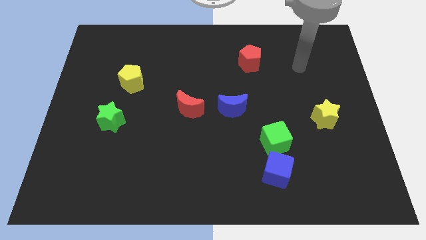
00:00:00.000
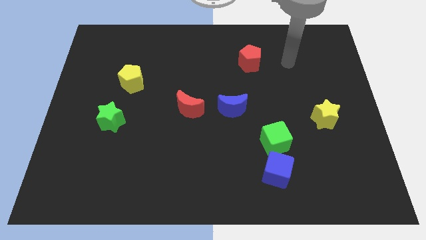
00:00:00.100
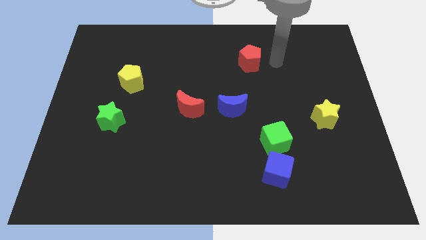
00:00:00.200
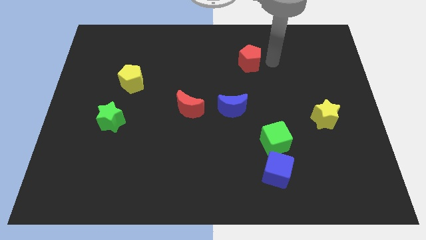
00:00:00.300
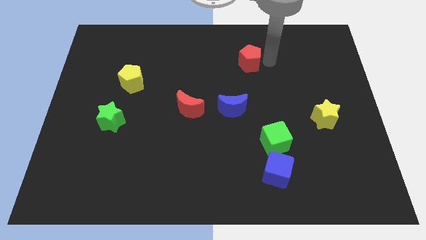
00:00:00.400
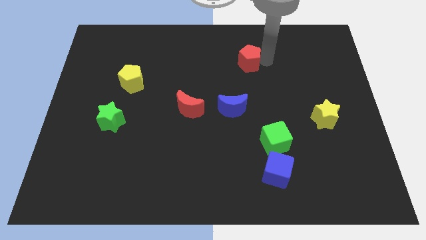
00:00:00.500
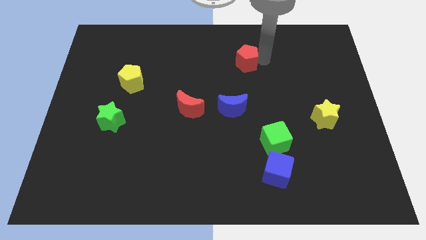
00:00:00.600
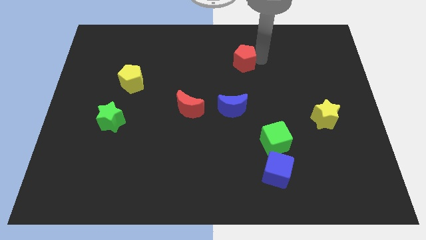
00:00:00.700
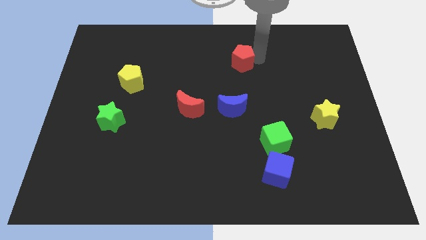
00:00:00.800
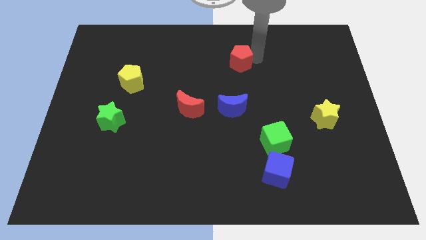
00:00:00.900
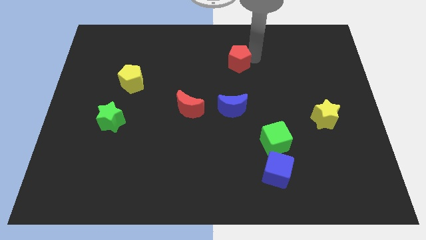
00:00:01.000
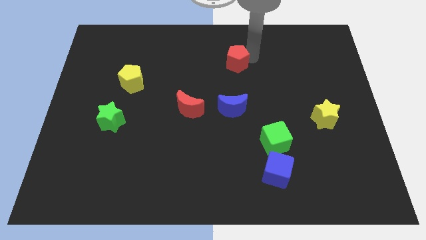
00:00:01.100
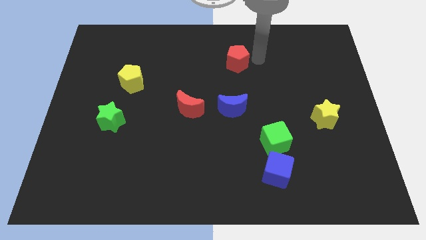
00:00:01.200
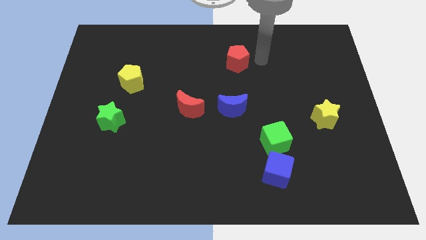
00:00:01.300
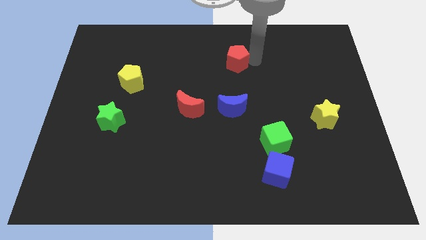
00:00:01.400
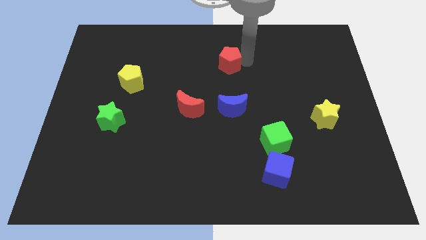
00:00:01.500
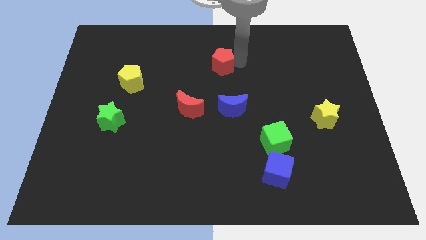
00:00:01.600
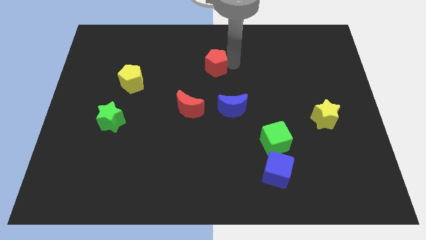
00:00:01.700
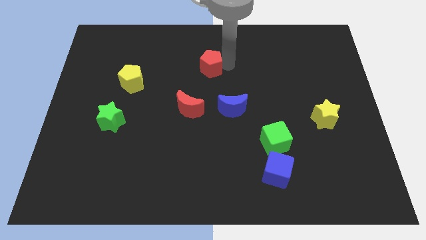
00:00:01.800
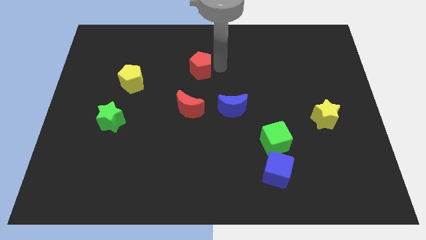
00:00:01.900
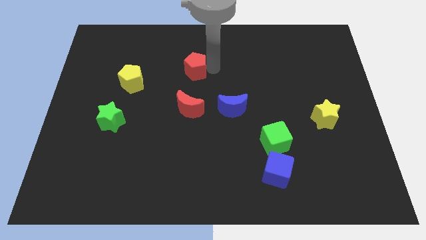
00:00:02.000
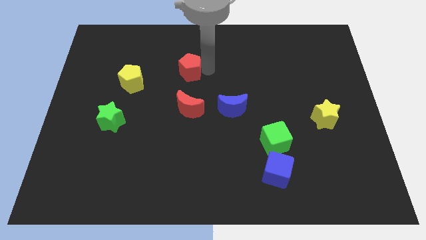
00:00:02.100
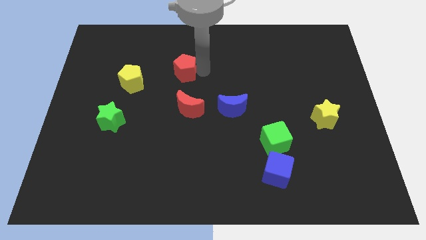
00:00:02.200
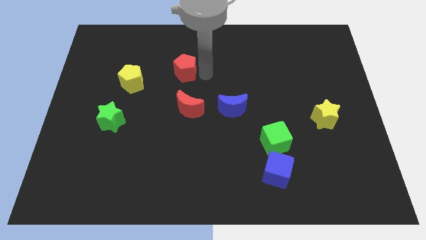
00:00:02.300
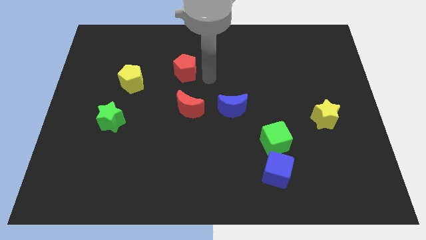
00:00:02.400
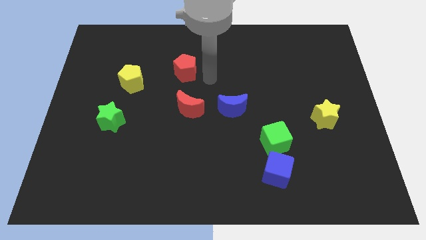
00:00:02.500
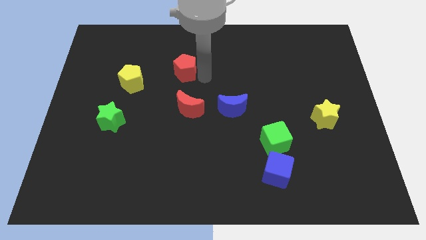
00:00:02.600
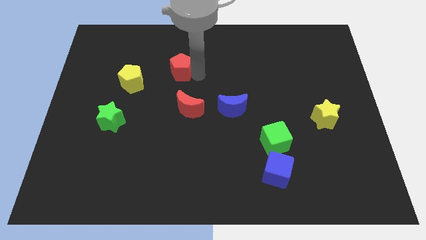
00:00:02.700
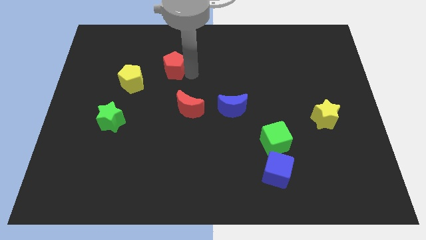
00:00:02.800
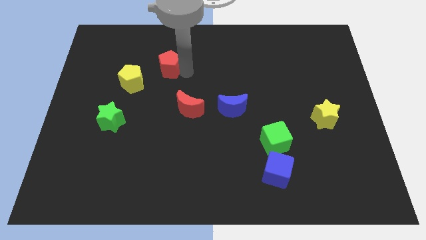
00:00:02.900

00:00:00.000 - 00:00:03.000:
move the red pentagon to the left

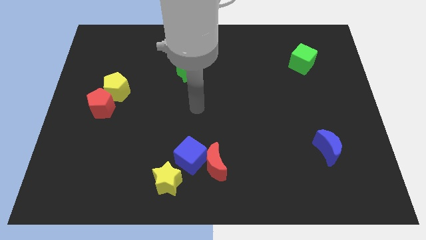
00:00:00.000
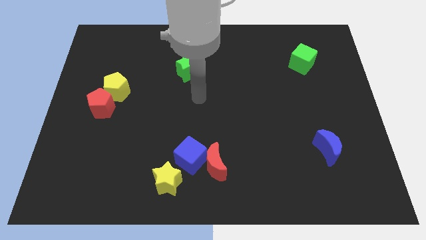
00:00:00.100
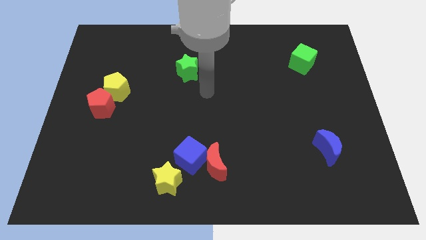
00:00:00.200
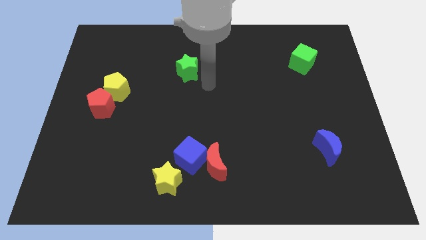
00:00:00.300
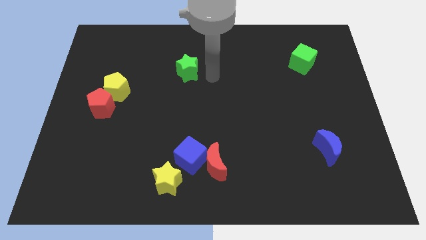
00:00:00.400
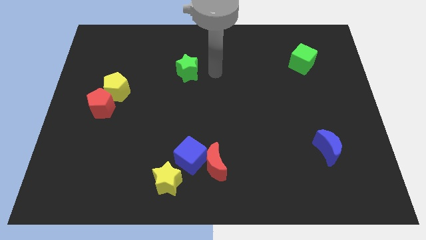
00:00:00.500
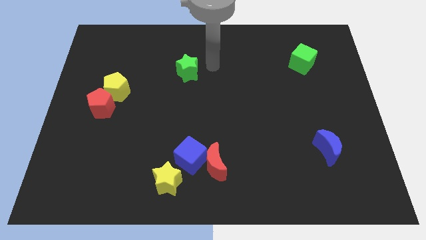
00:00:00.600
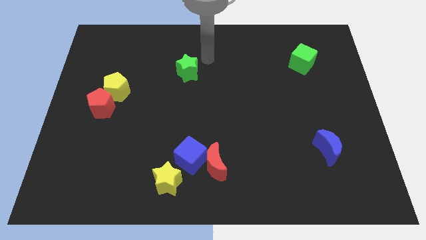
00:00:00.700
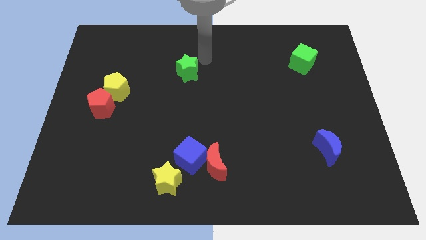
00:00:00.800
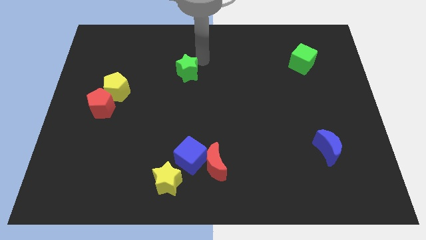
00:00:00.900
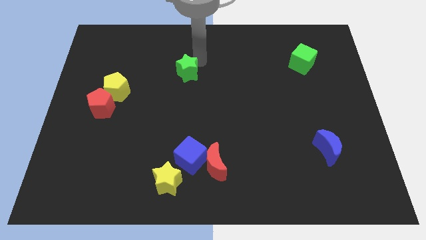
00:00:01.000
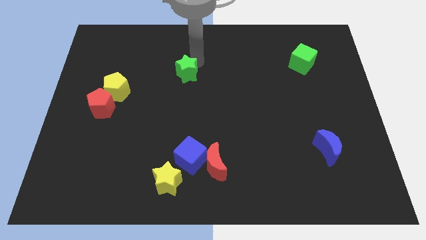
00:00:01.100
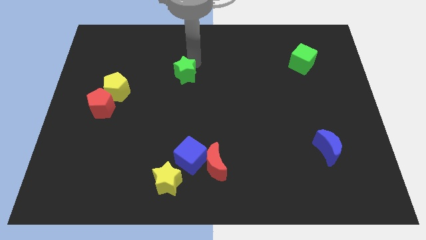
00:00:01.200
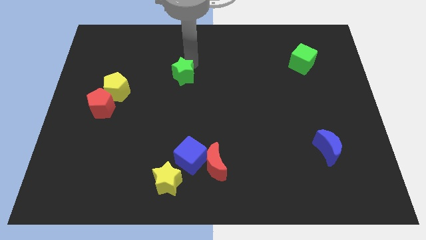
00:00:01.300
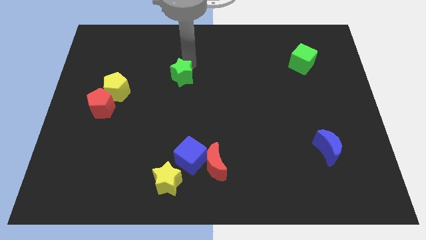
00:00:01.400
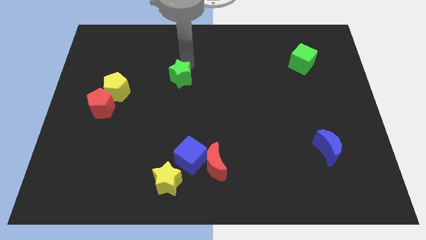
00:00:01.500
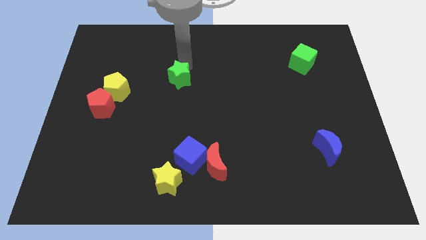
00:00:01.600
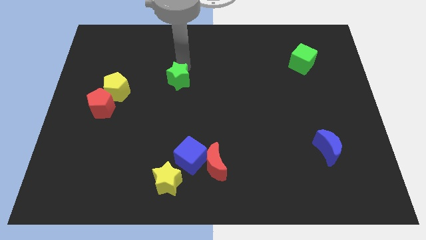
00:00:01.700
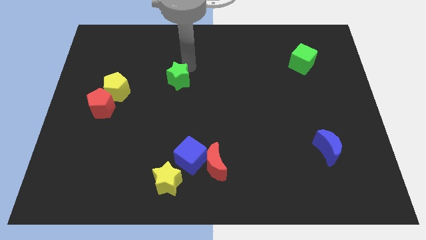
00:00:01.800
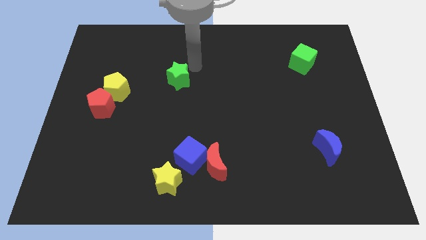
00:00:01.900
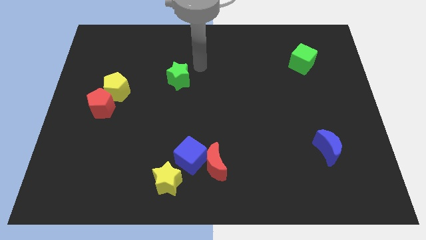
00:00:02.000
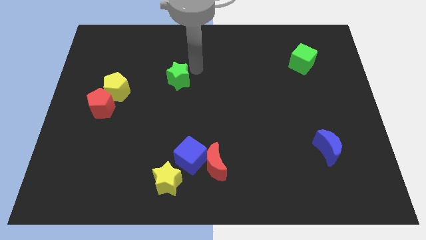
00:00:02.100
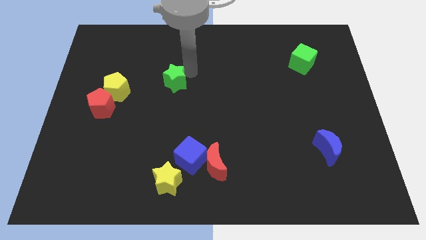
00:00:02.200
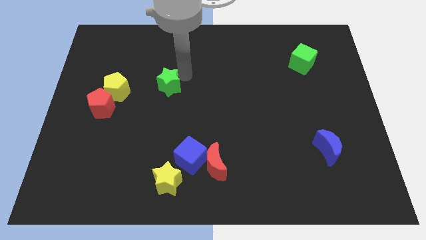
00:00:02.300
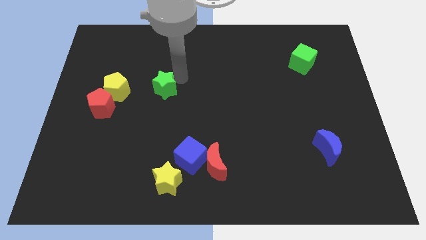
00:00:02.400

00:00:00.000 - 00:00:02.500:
push the green star diagonally downwards and left a little bit

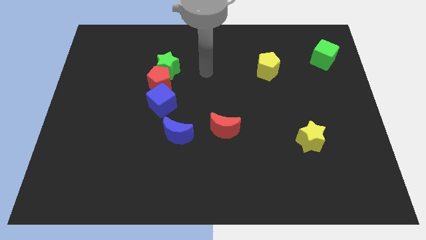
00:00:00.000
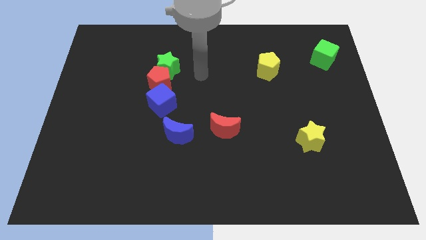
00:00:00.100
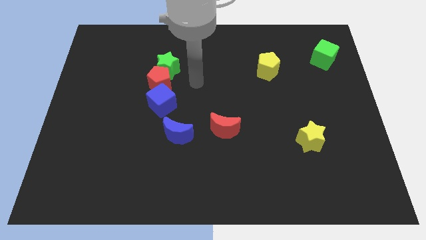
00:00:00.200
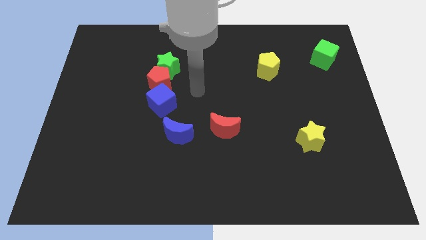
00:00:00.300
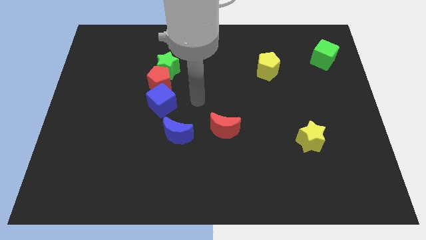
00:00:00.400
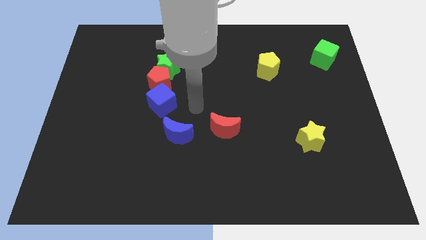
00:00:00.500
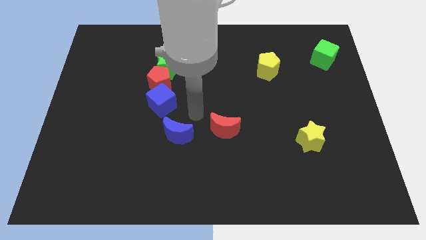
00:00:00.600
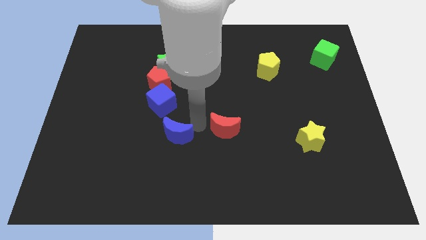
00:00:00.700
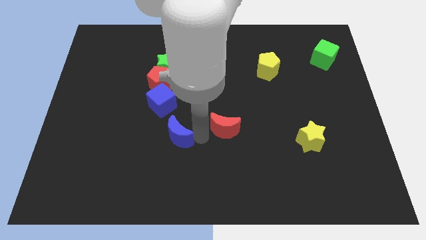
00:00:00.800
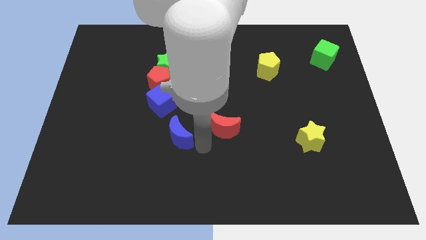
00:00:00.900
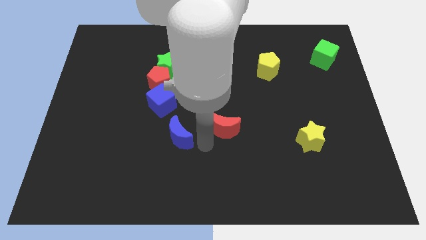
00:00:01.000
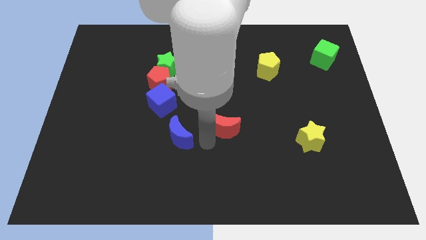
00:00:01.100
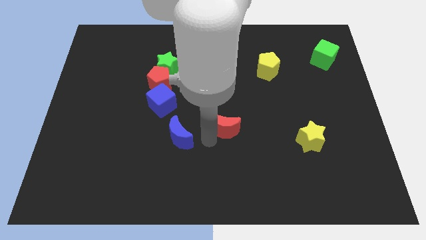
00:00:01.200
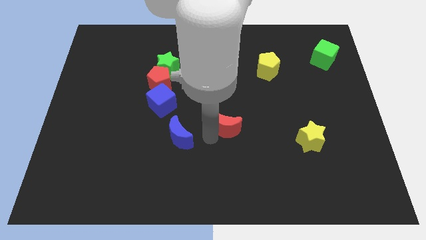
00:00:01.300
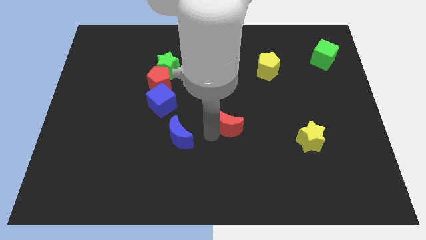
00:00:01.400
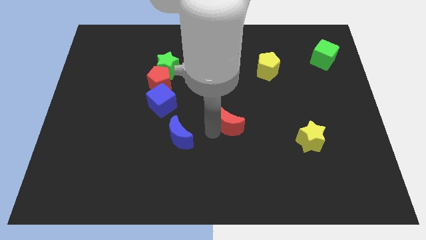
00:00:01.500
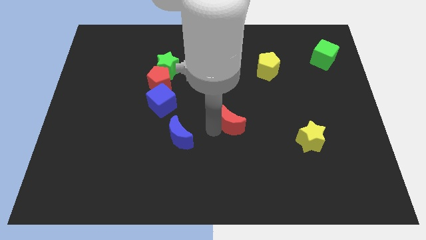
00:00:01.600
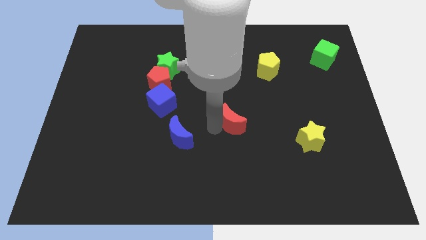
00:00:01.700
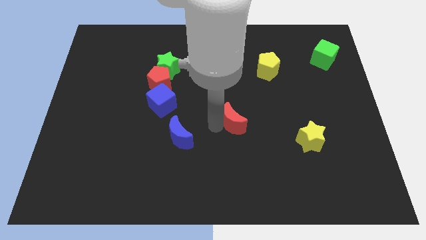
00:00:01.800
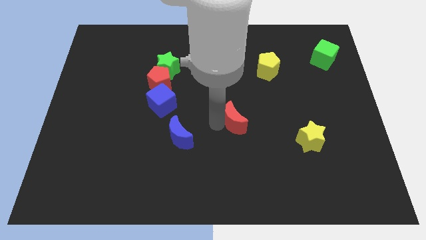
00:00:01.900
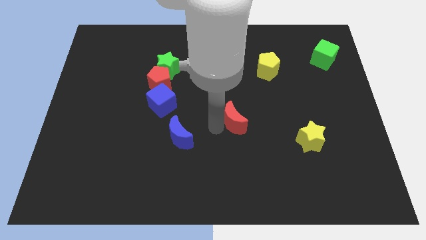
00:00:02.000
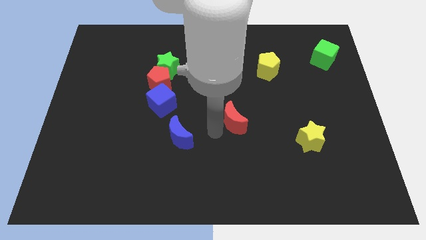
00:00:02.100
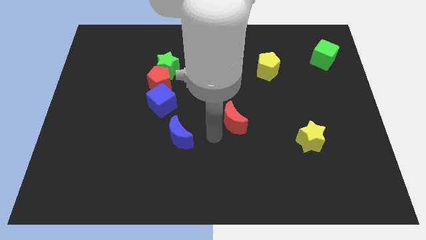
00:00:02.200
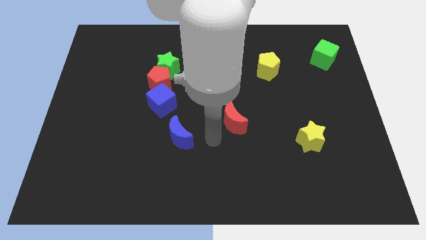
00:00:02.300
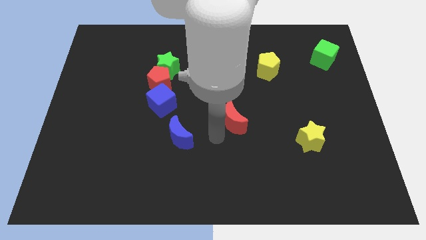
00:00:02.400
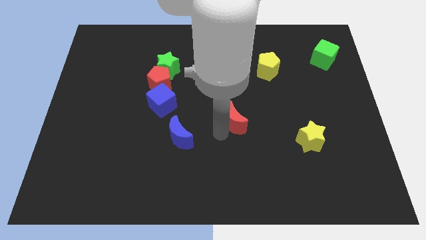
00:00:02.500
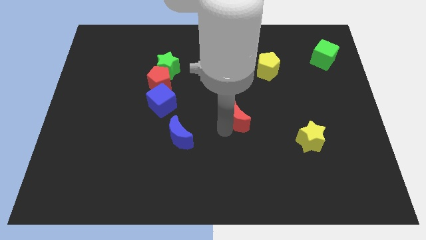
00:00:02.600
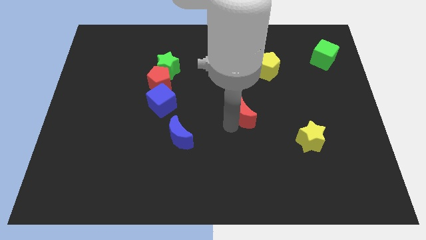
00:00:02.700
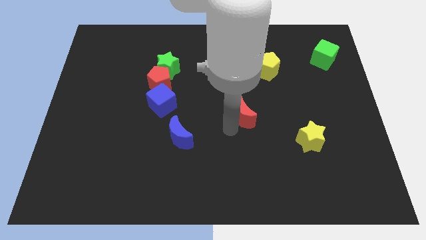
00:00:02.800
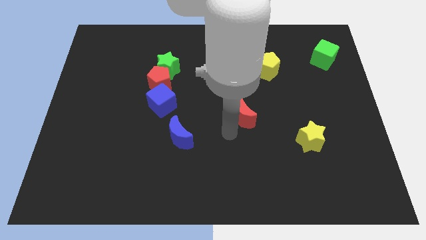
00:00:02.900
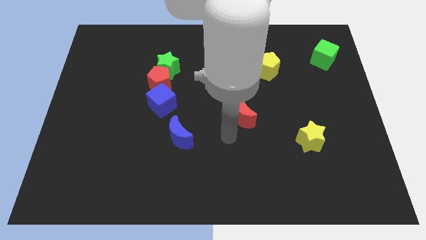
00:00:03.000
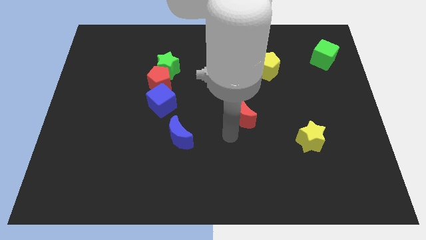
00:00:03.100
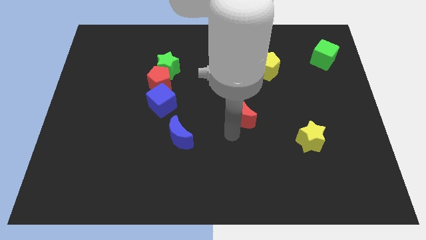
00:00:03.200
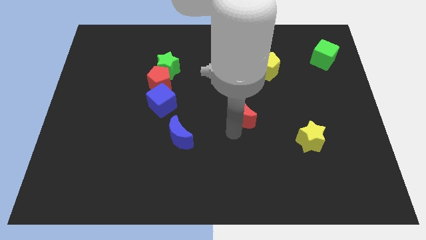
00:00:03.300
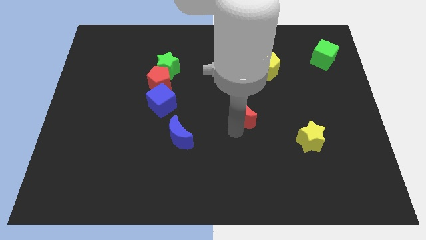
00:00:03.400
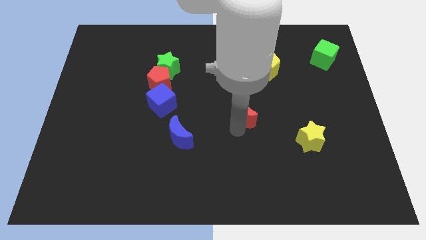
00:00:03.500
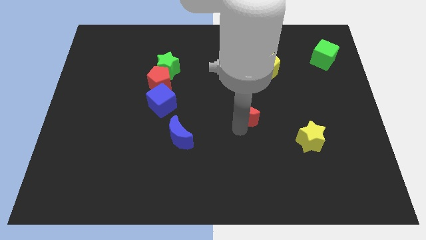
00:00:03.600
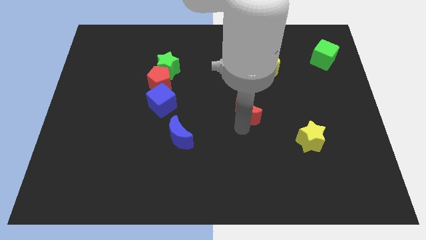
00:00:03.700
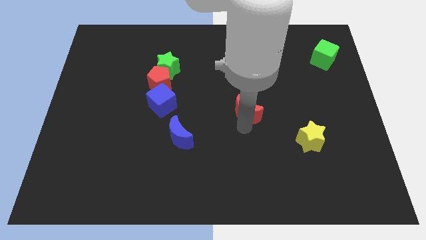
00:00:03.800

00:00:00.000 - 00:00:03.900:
slightly slide the red moon upwards and right diagonally
